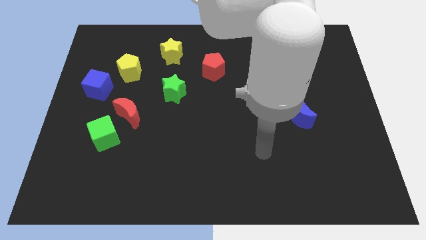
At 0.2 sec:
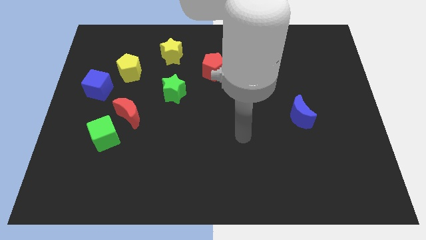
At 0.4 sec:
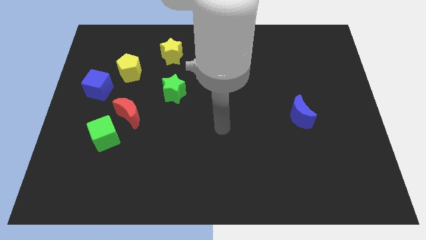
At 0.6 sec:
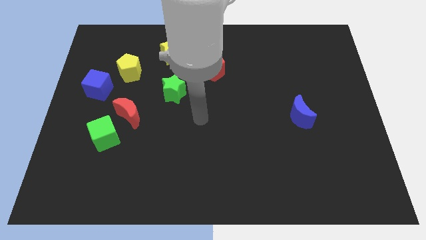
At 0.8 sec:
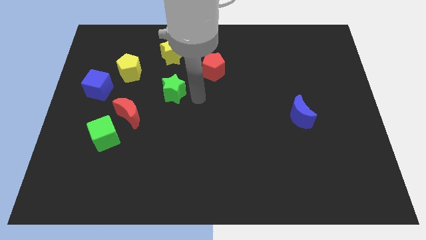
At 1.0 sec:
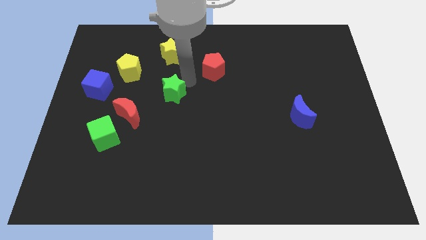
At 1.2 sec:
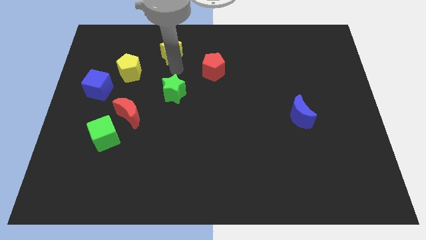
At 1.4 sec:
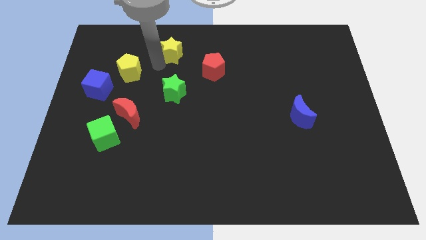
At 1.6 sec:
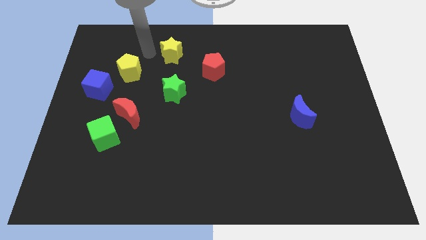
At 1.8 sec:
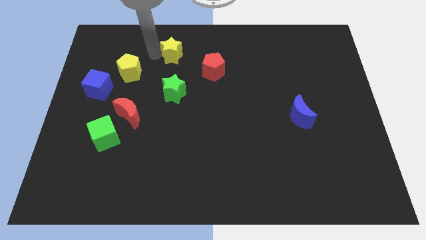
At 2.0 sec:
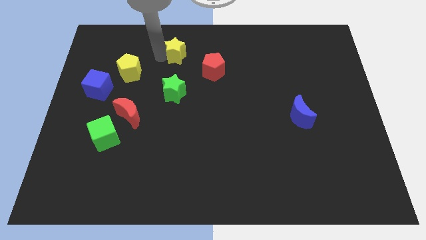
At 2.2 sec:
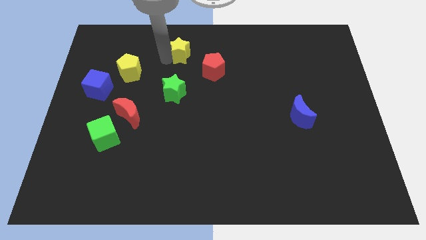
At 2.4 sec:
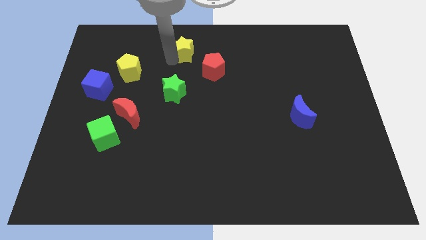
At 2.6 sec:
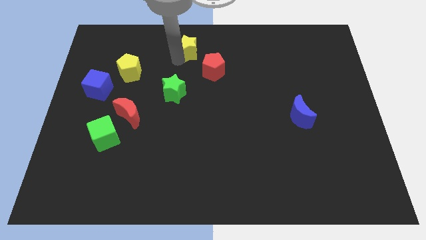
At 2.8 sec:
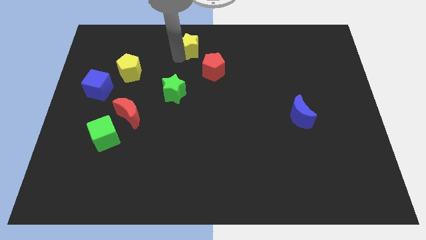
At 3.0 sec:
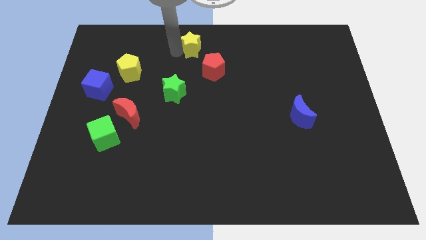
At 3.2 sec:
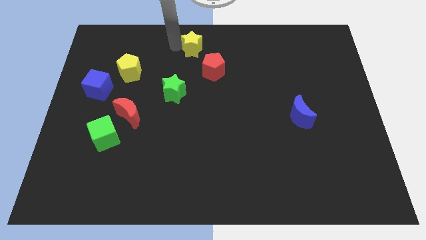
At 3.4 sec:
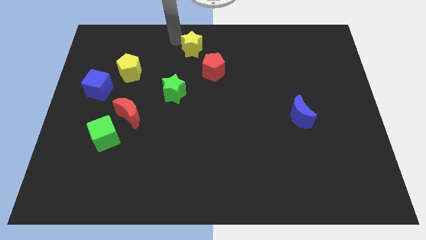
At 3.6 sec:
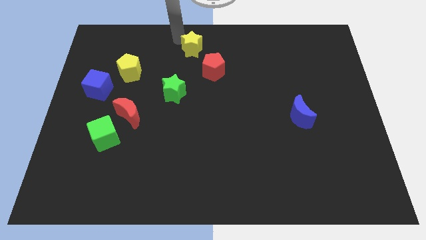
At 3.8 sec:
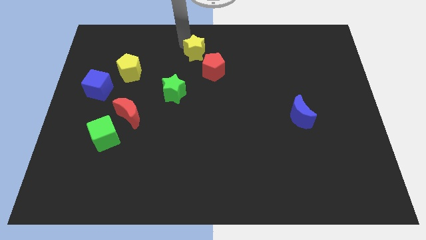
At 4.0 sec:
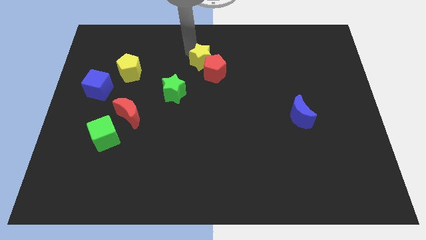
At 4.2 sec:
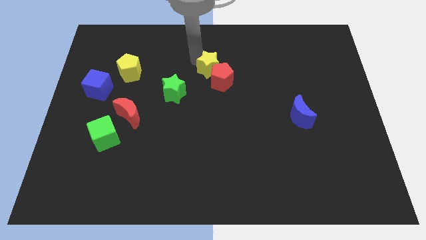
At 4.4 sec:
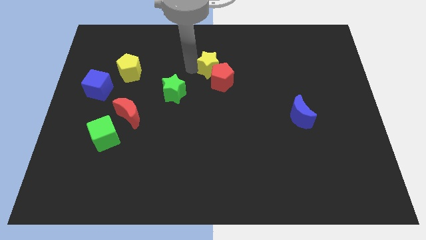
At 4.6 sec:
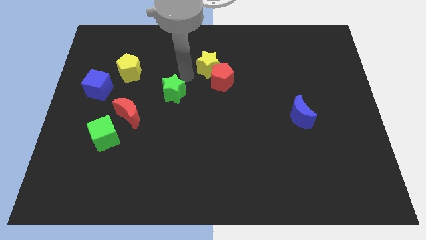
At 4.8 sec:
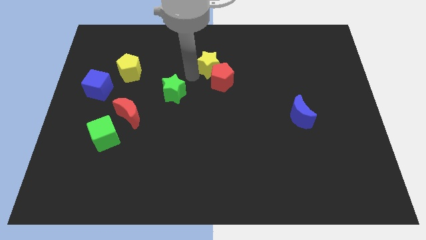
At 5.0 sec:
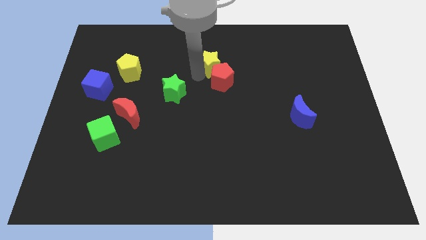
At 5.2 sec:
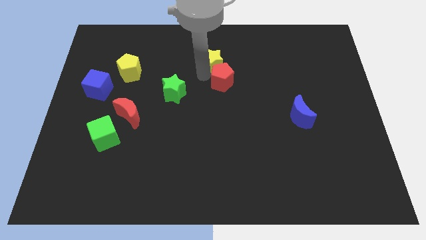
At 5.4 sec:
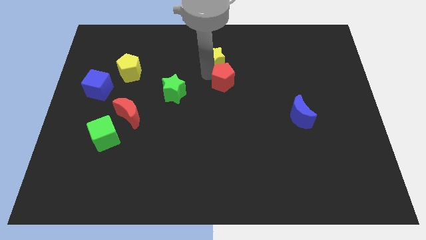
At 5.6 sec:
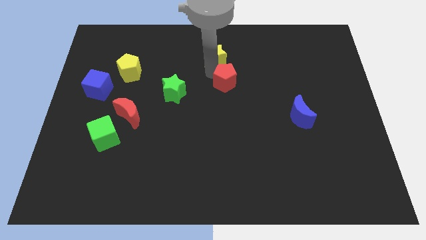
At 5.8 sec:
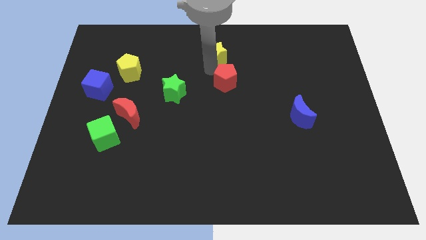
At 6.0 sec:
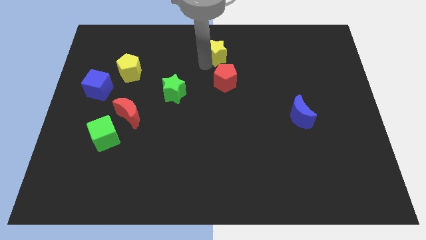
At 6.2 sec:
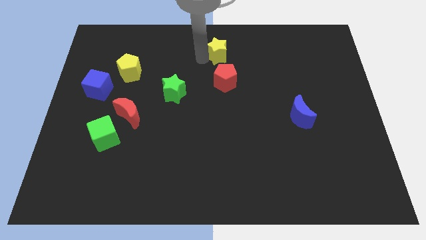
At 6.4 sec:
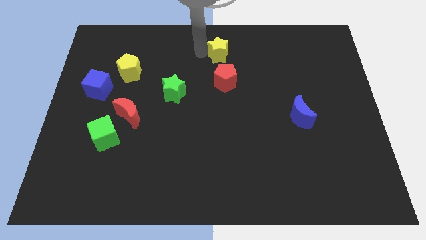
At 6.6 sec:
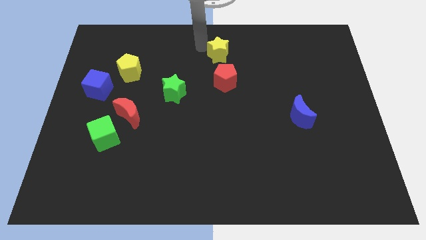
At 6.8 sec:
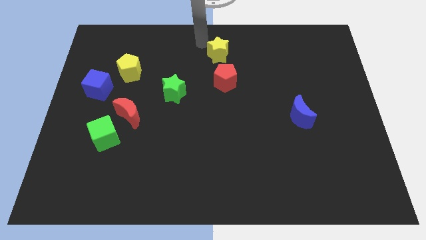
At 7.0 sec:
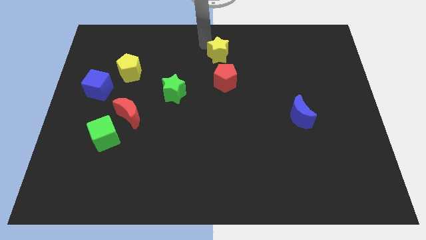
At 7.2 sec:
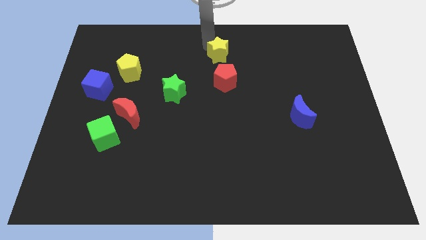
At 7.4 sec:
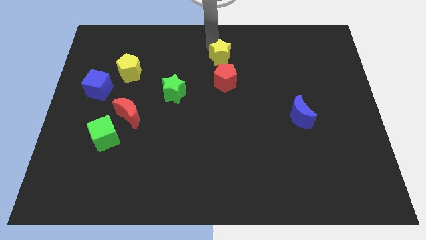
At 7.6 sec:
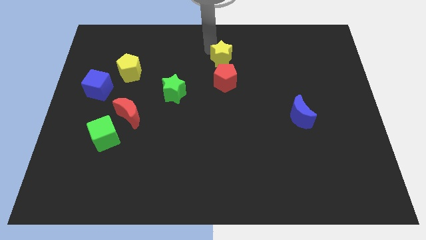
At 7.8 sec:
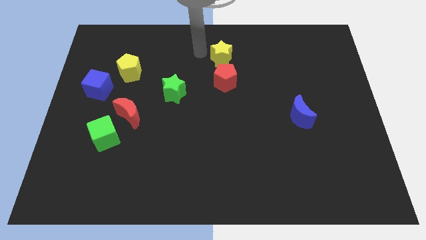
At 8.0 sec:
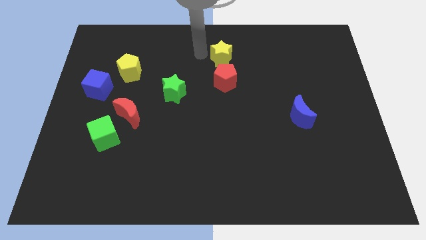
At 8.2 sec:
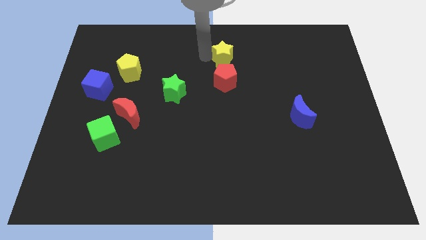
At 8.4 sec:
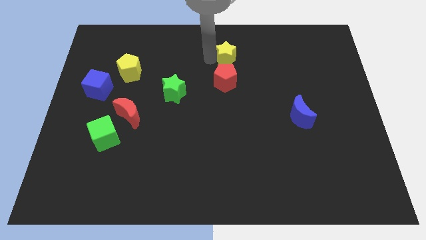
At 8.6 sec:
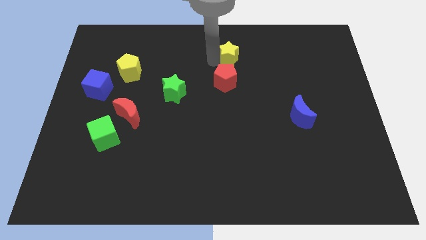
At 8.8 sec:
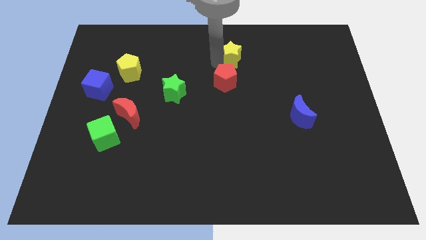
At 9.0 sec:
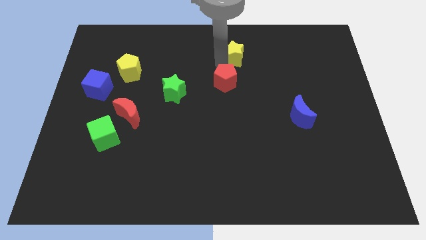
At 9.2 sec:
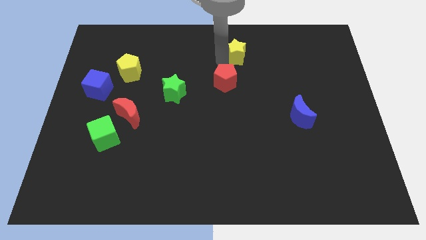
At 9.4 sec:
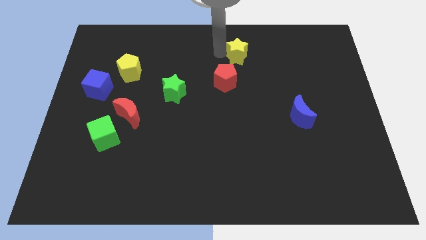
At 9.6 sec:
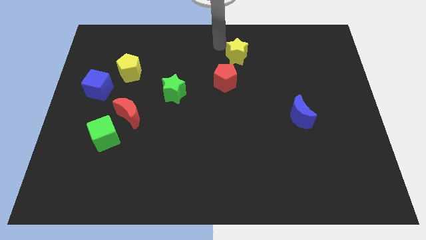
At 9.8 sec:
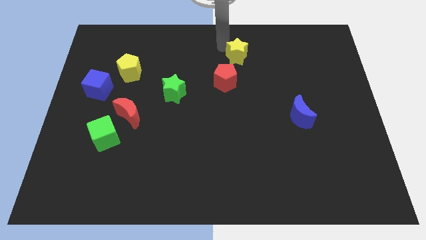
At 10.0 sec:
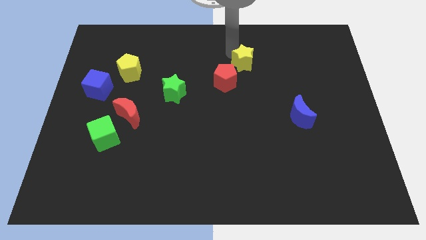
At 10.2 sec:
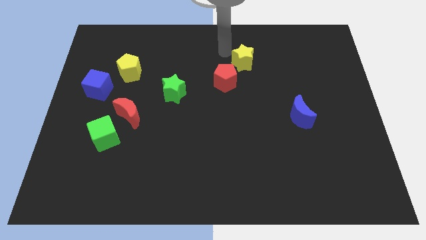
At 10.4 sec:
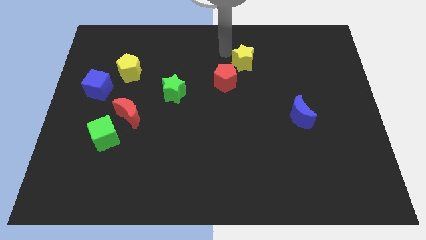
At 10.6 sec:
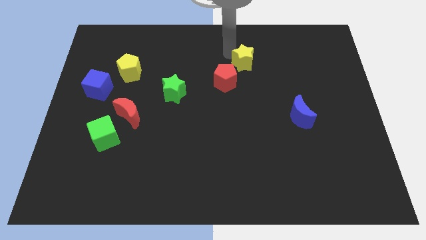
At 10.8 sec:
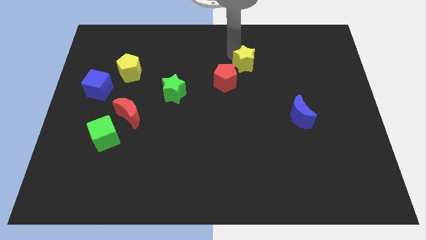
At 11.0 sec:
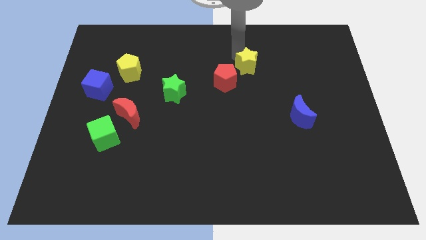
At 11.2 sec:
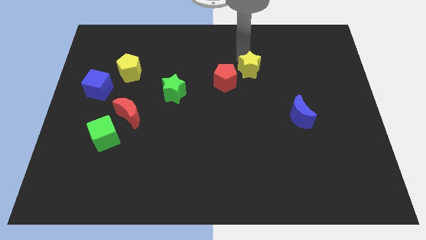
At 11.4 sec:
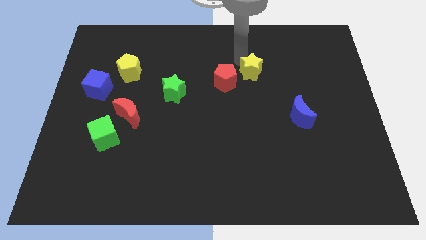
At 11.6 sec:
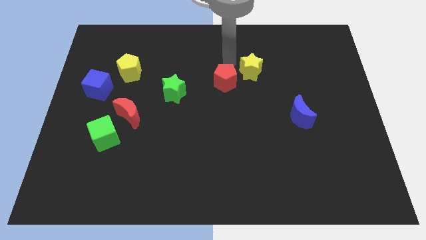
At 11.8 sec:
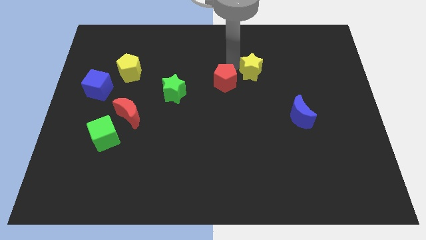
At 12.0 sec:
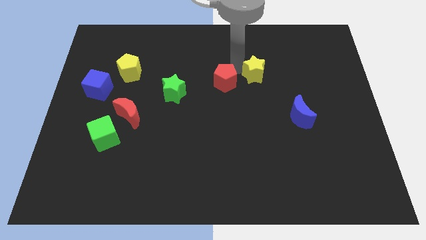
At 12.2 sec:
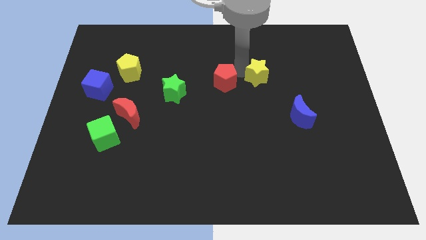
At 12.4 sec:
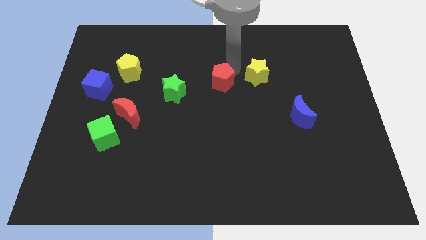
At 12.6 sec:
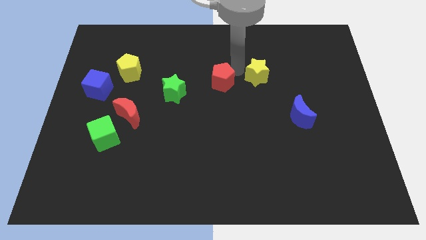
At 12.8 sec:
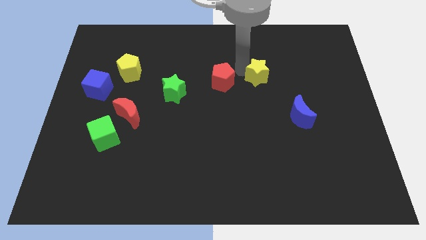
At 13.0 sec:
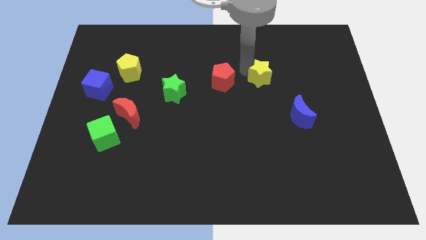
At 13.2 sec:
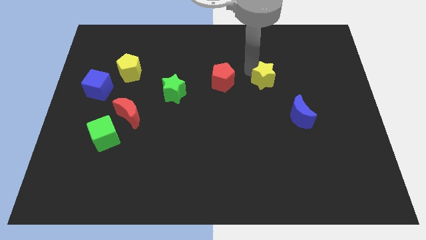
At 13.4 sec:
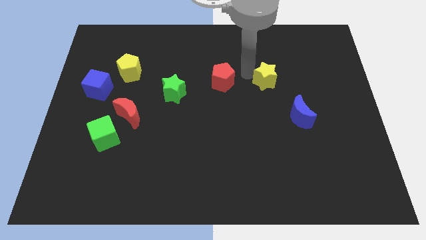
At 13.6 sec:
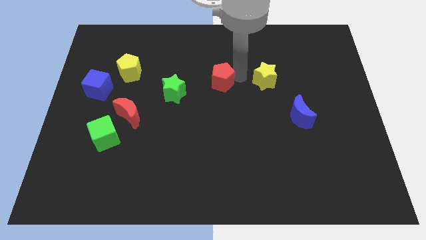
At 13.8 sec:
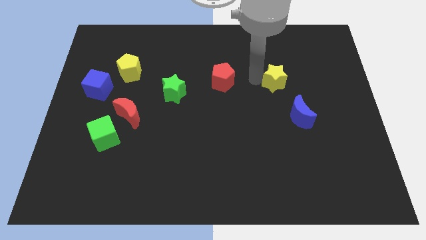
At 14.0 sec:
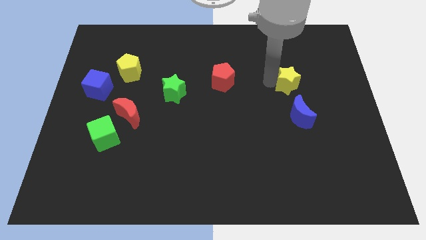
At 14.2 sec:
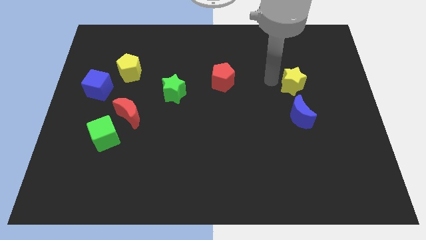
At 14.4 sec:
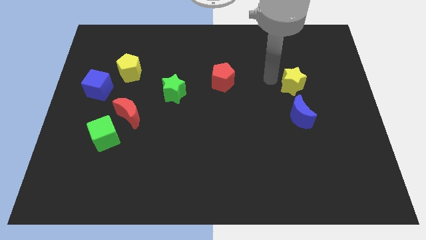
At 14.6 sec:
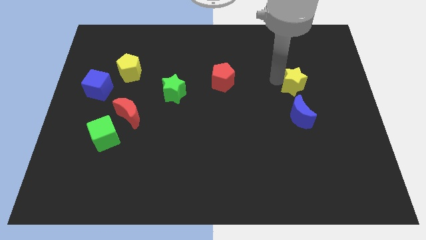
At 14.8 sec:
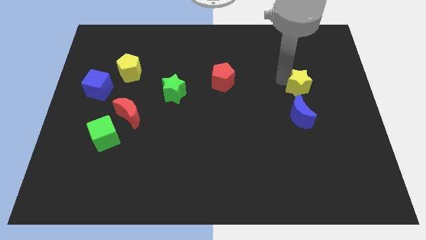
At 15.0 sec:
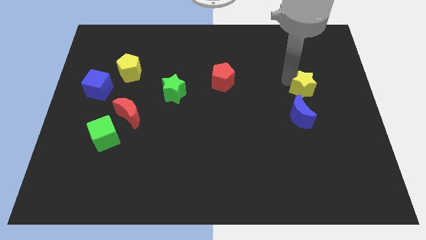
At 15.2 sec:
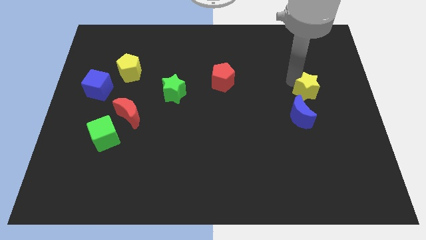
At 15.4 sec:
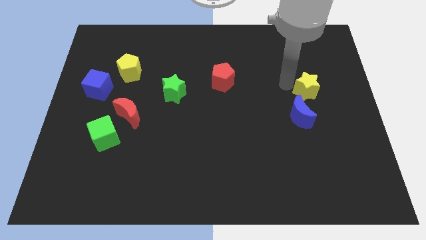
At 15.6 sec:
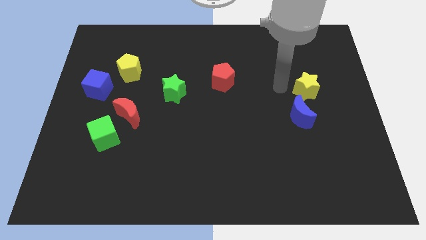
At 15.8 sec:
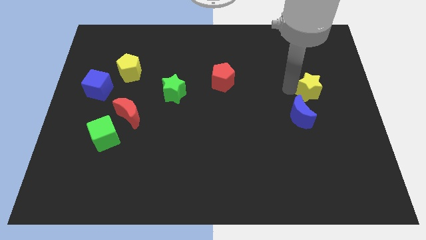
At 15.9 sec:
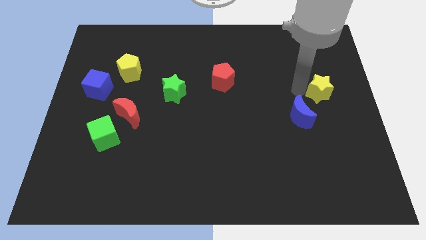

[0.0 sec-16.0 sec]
slide the yellow star to the right side of the board
